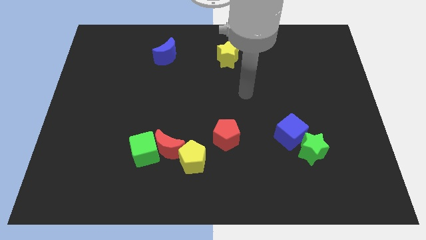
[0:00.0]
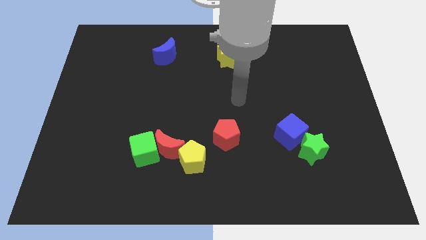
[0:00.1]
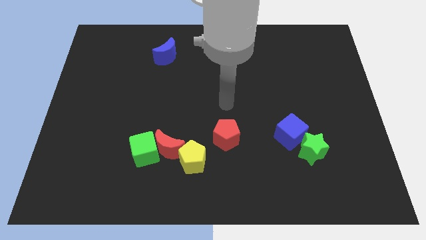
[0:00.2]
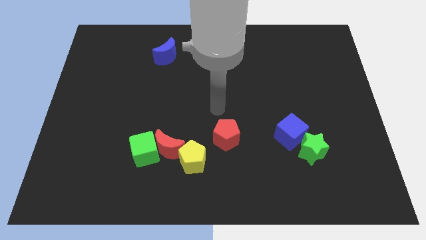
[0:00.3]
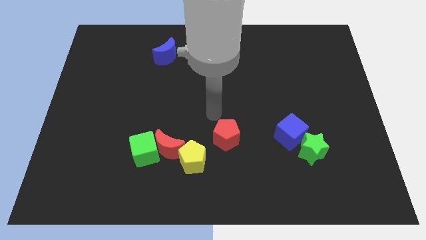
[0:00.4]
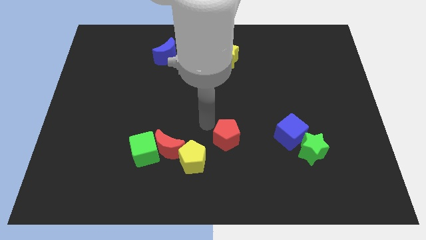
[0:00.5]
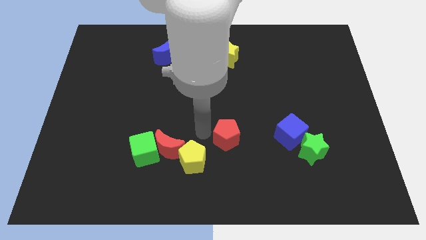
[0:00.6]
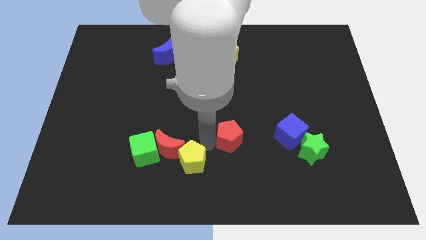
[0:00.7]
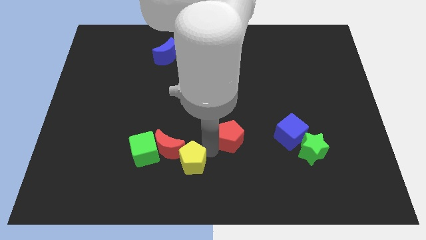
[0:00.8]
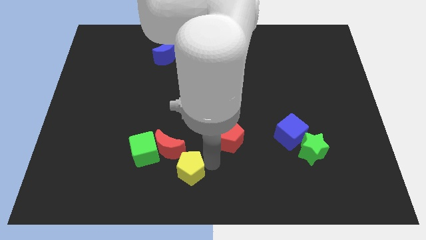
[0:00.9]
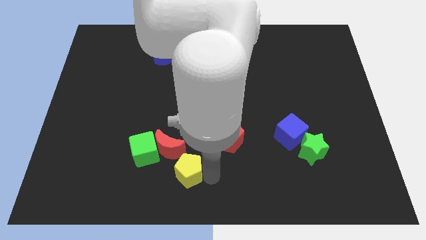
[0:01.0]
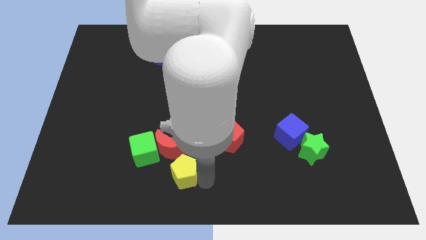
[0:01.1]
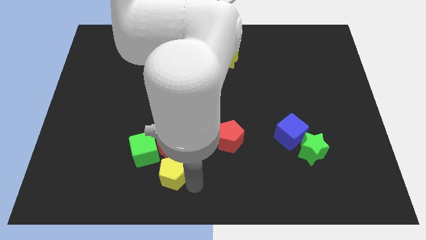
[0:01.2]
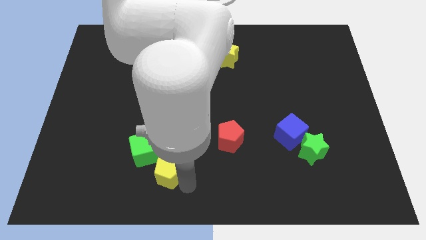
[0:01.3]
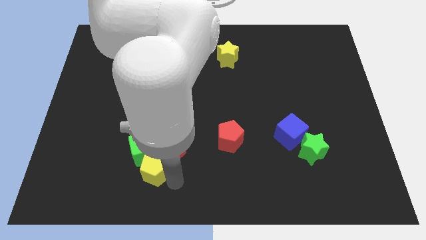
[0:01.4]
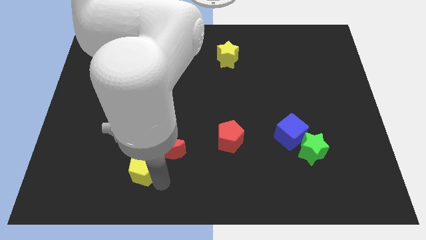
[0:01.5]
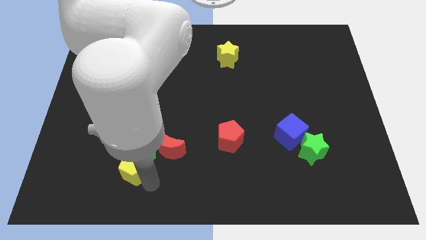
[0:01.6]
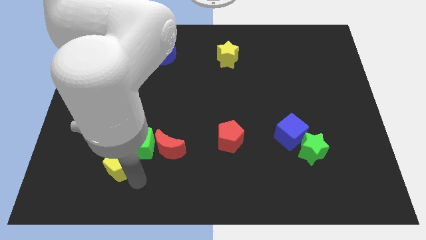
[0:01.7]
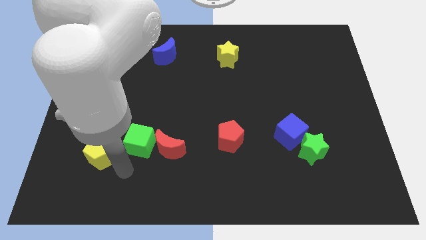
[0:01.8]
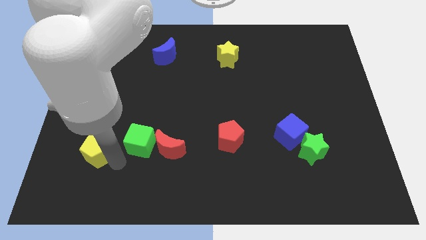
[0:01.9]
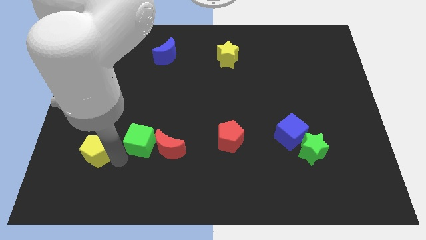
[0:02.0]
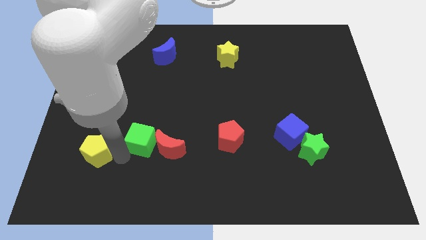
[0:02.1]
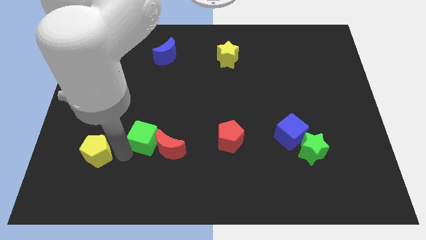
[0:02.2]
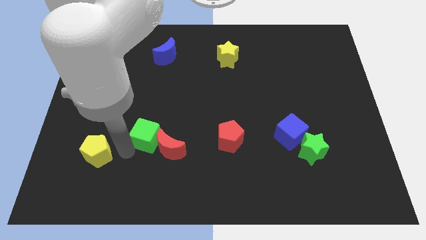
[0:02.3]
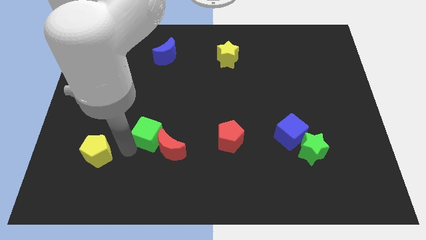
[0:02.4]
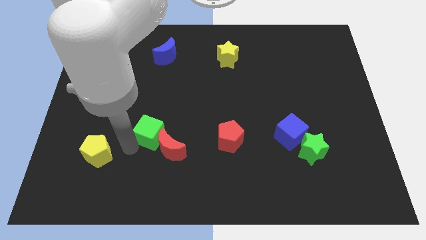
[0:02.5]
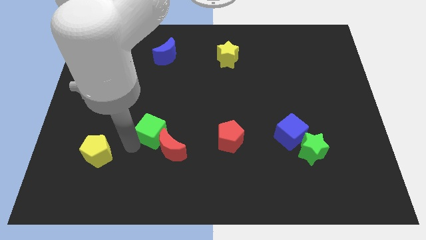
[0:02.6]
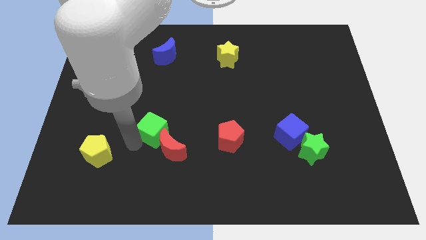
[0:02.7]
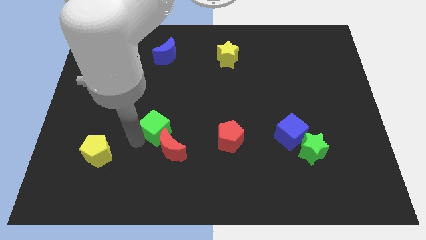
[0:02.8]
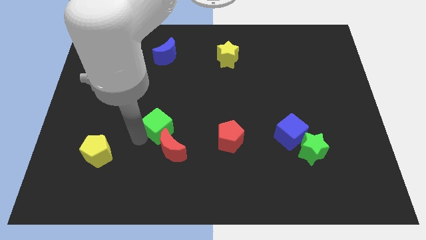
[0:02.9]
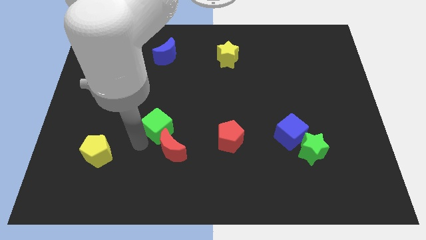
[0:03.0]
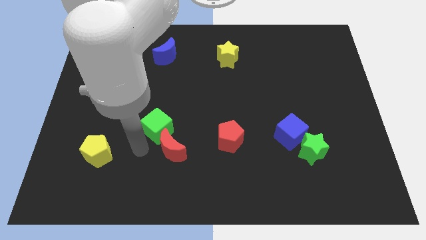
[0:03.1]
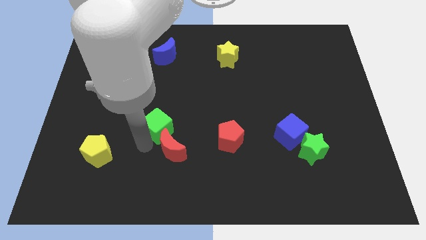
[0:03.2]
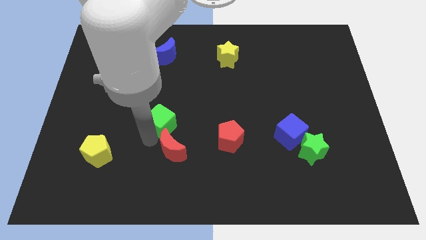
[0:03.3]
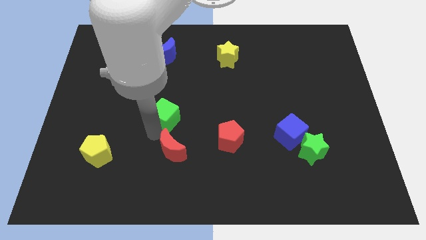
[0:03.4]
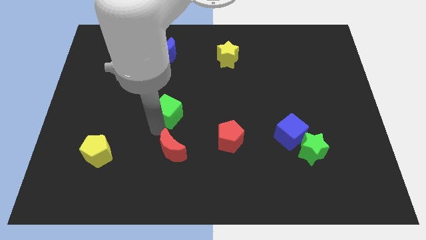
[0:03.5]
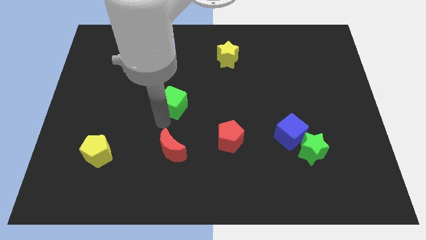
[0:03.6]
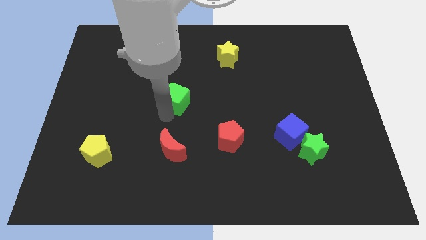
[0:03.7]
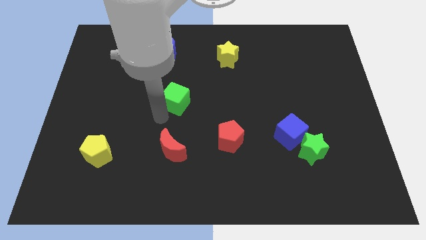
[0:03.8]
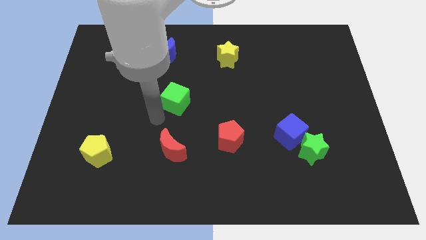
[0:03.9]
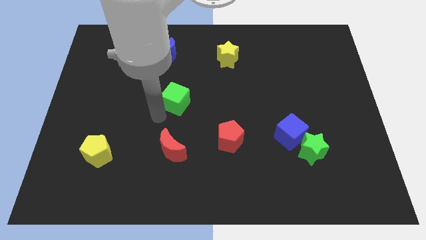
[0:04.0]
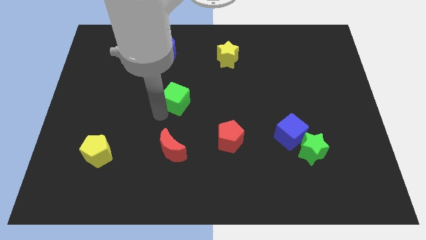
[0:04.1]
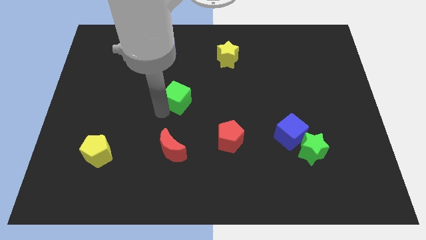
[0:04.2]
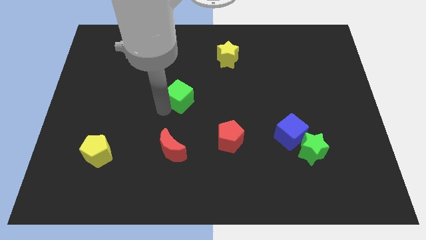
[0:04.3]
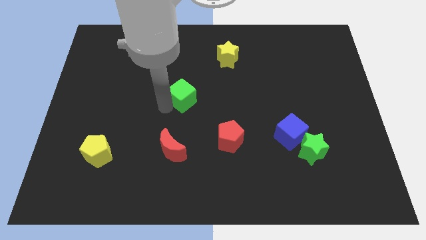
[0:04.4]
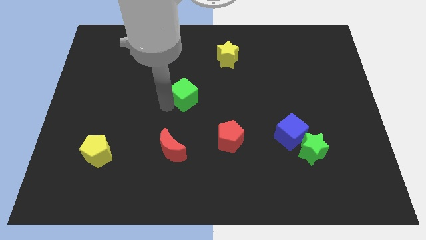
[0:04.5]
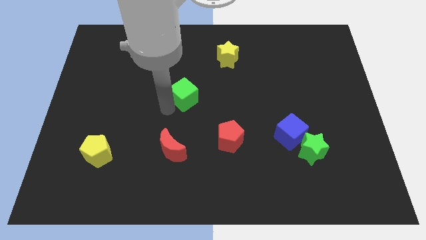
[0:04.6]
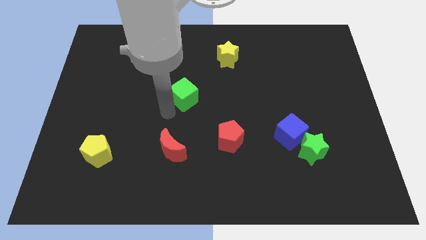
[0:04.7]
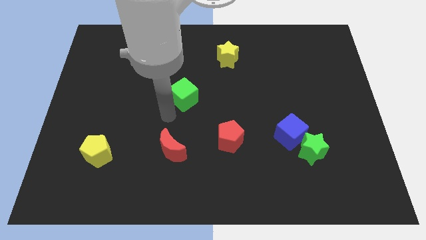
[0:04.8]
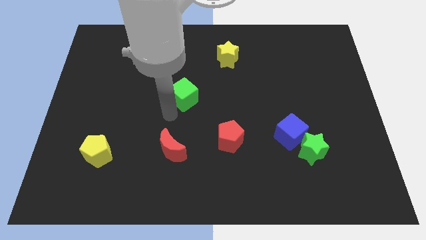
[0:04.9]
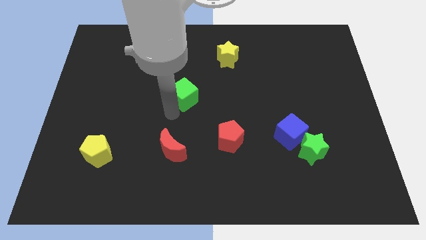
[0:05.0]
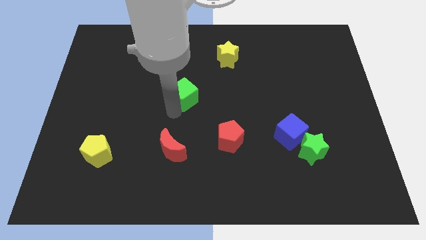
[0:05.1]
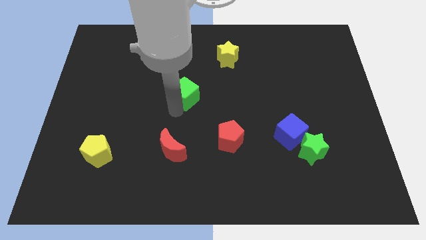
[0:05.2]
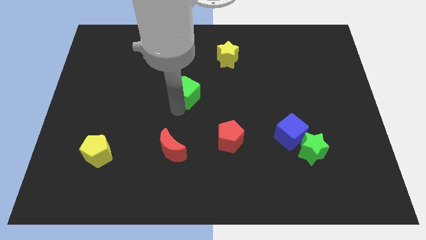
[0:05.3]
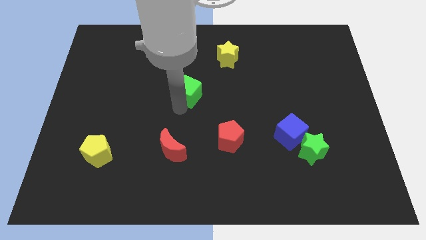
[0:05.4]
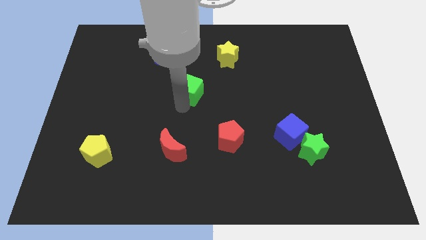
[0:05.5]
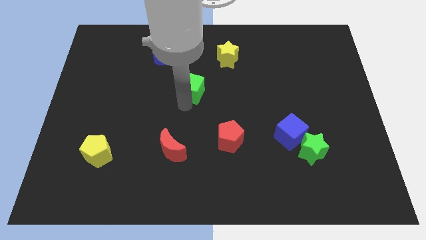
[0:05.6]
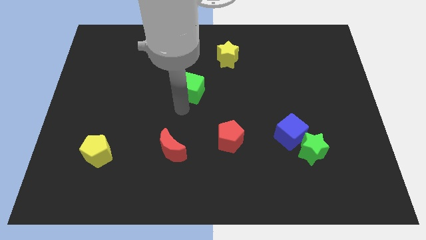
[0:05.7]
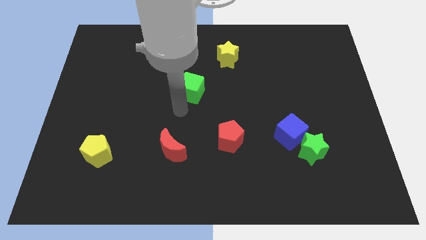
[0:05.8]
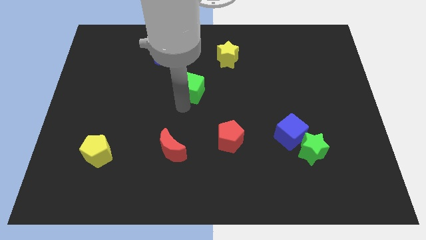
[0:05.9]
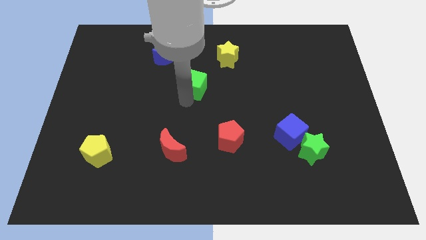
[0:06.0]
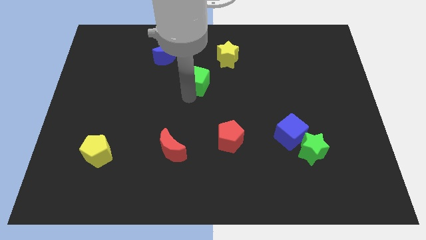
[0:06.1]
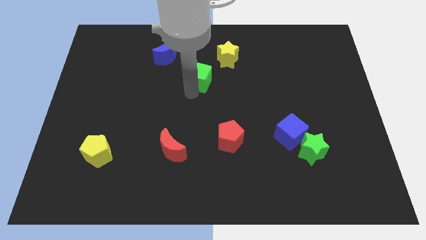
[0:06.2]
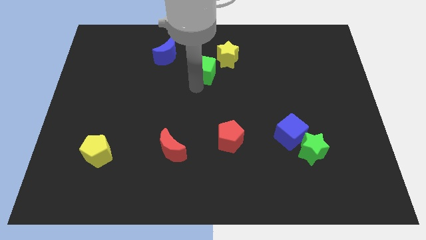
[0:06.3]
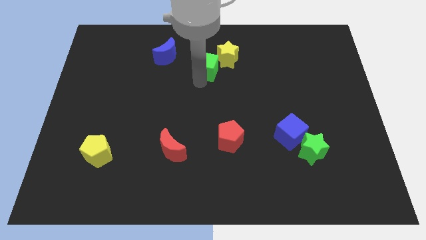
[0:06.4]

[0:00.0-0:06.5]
push the green cube right of the blue moon

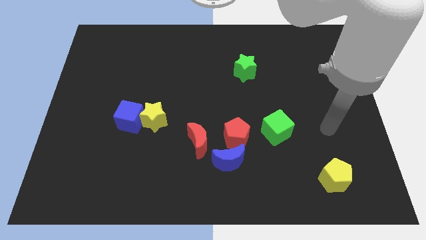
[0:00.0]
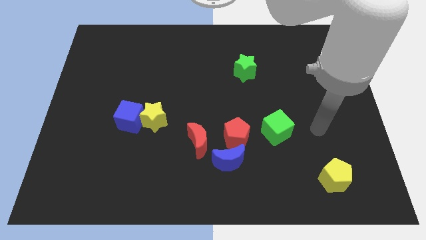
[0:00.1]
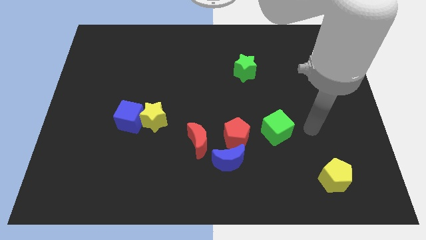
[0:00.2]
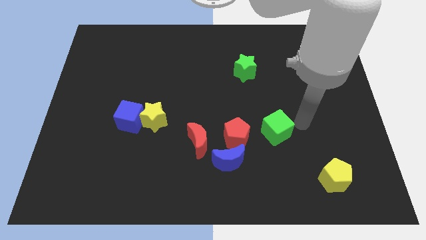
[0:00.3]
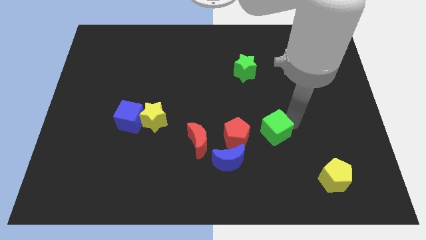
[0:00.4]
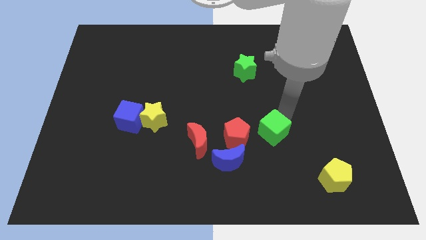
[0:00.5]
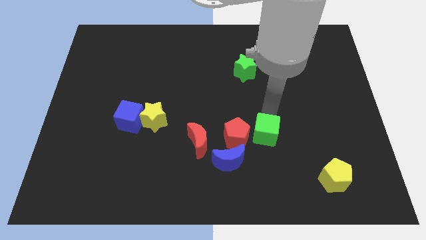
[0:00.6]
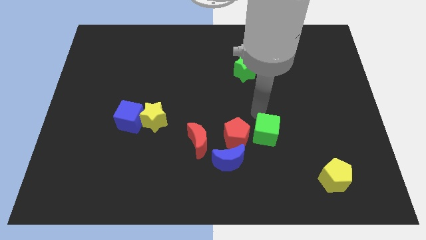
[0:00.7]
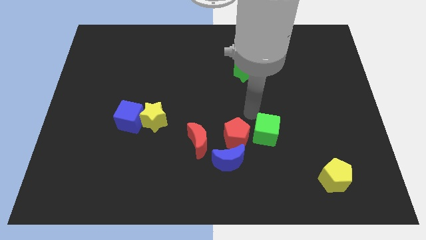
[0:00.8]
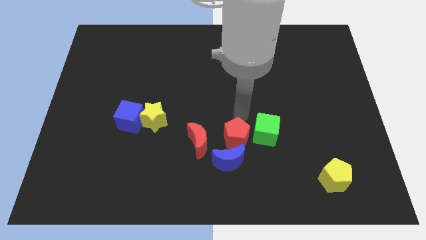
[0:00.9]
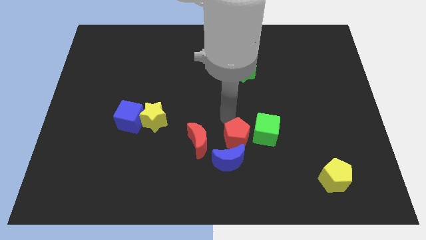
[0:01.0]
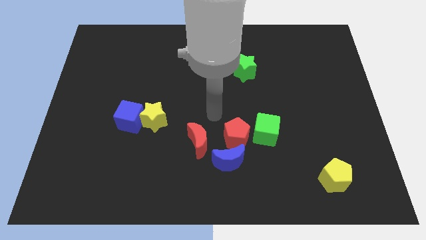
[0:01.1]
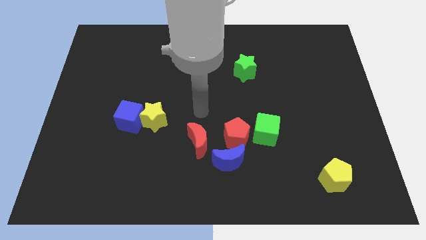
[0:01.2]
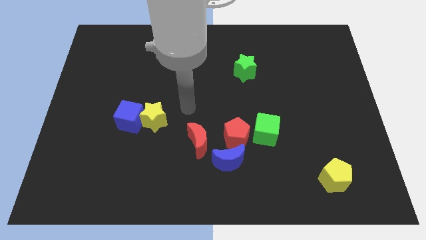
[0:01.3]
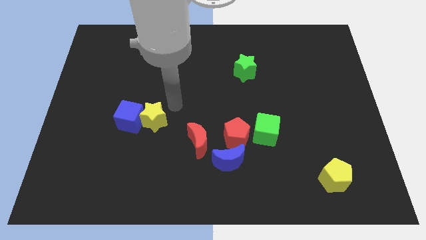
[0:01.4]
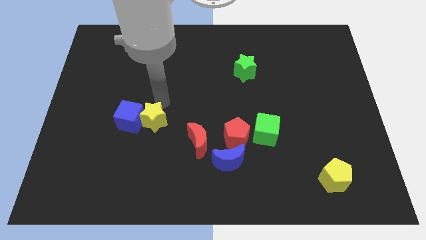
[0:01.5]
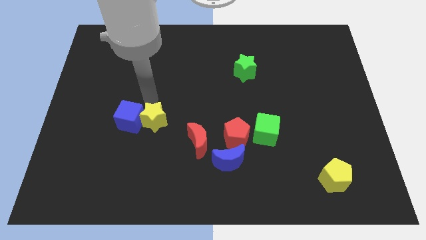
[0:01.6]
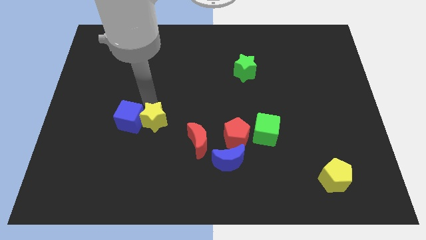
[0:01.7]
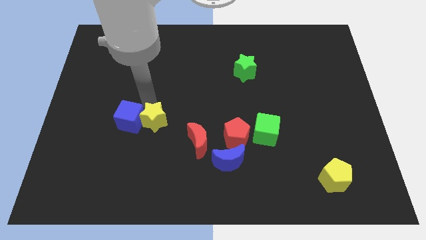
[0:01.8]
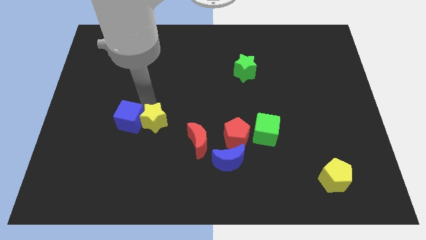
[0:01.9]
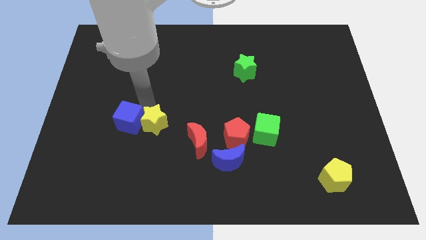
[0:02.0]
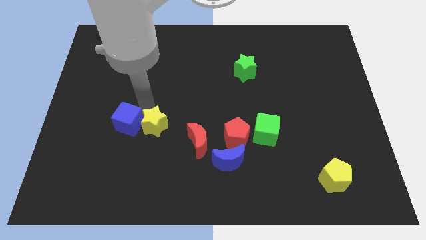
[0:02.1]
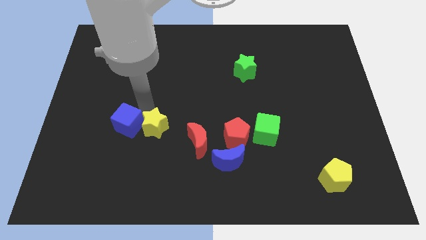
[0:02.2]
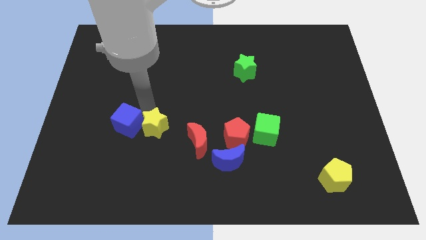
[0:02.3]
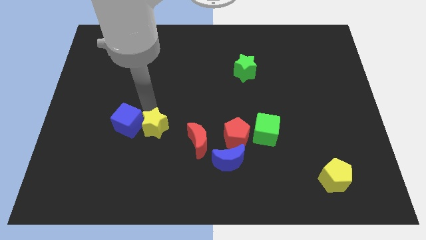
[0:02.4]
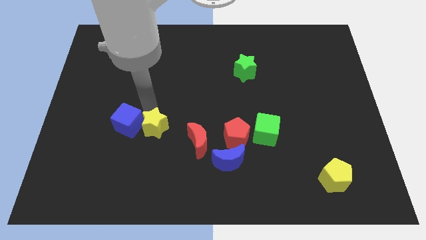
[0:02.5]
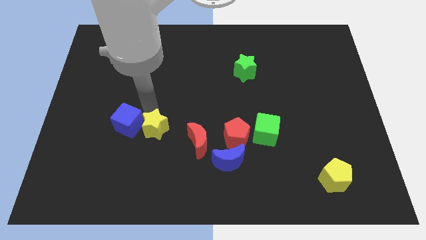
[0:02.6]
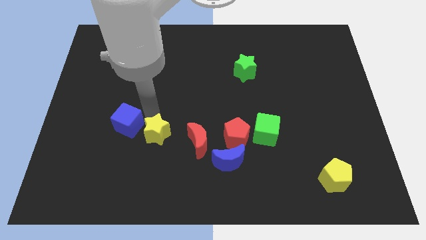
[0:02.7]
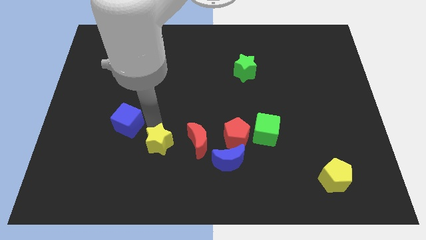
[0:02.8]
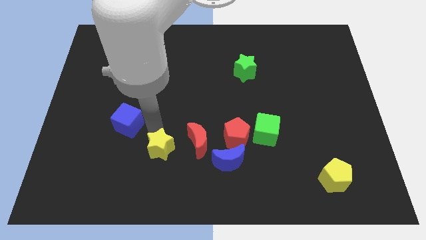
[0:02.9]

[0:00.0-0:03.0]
move the yellow star to the bottom left of the red moon
